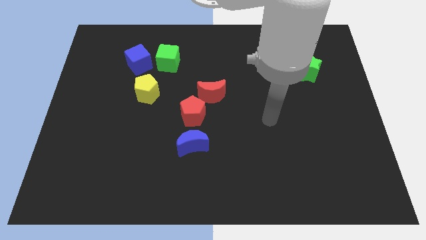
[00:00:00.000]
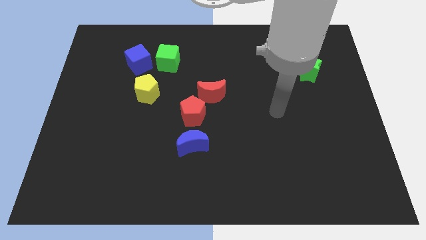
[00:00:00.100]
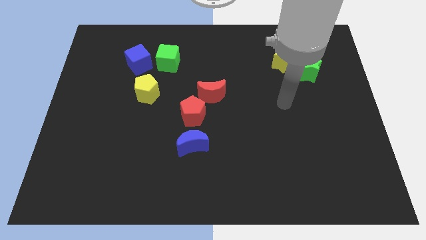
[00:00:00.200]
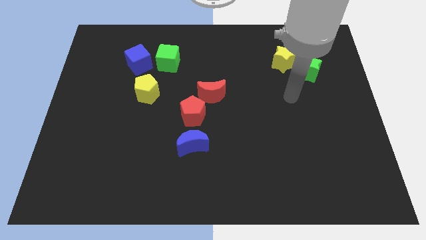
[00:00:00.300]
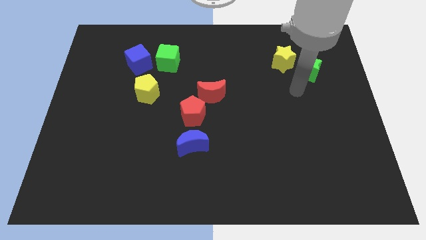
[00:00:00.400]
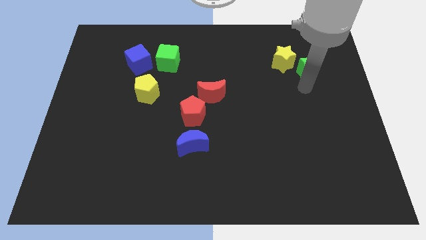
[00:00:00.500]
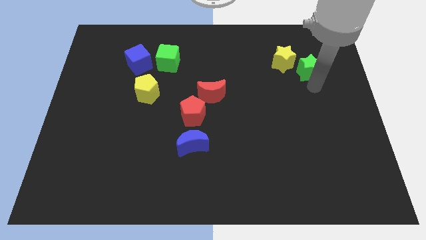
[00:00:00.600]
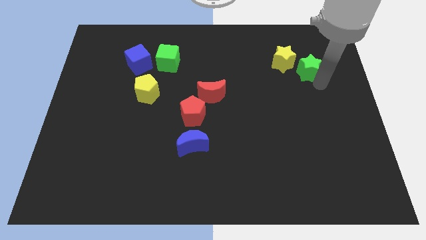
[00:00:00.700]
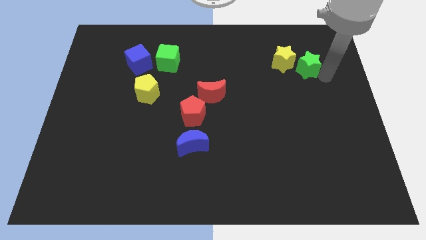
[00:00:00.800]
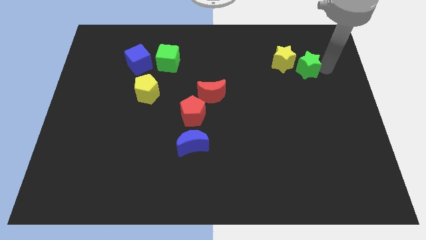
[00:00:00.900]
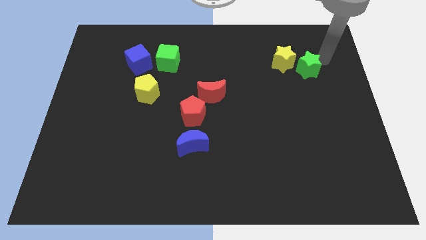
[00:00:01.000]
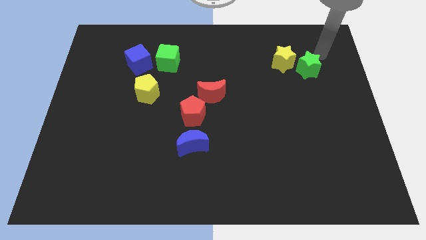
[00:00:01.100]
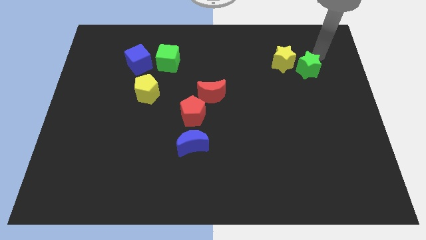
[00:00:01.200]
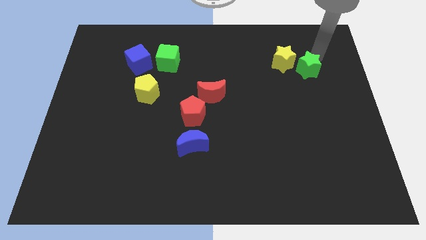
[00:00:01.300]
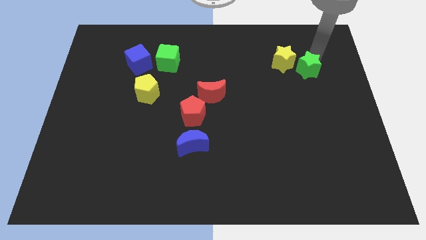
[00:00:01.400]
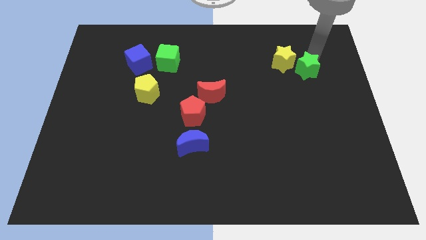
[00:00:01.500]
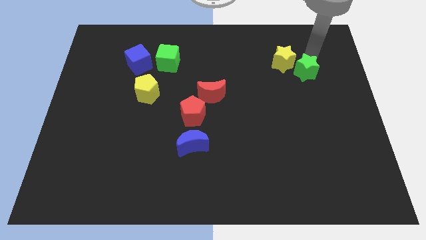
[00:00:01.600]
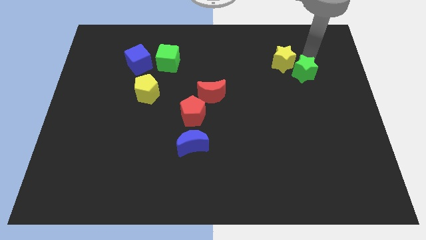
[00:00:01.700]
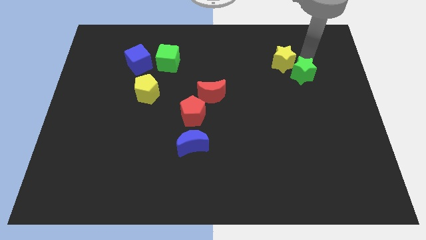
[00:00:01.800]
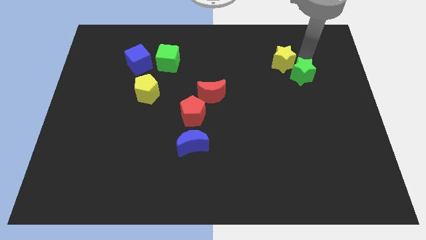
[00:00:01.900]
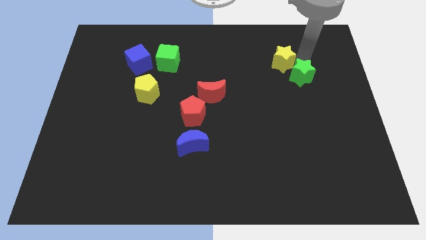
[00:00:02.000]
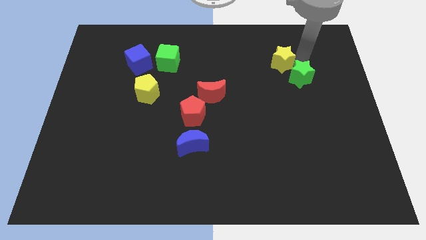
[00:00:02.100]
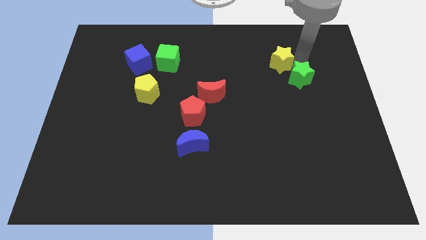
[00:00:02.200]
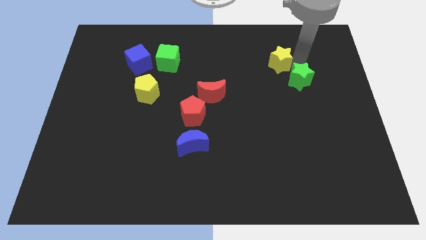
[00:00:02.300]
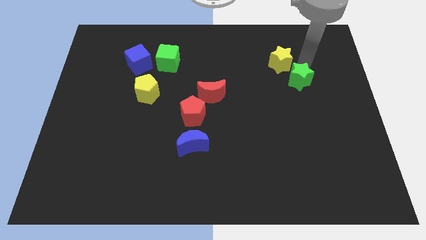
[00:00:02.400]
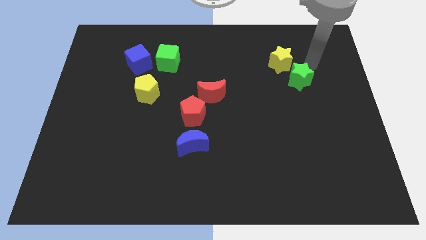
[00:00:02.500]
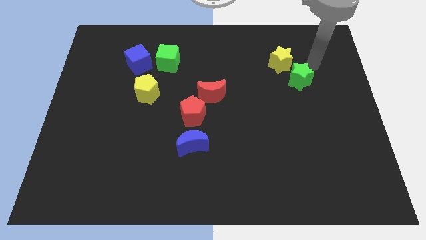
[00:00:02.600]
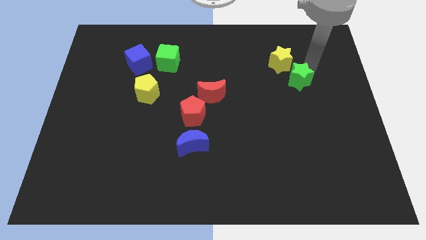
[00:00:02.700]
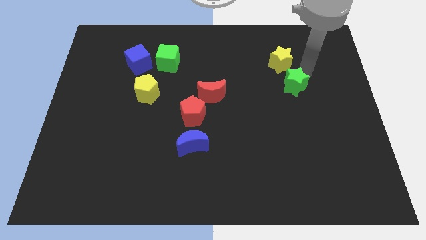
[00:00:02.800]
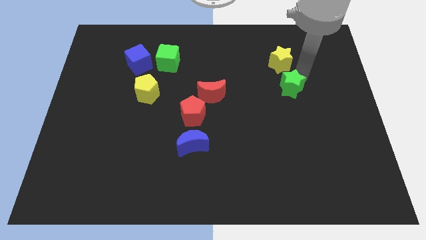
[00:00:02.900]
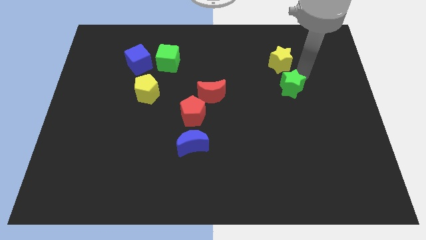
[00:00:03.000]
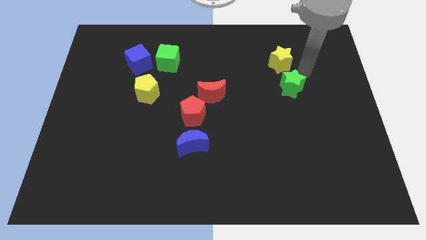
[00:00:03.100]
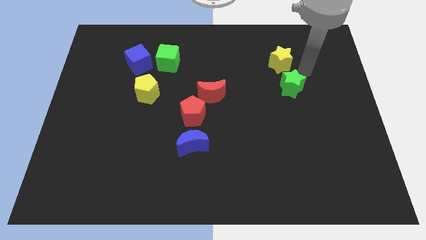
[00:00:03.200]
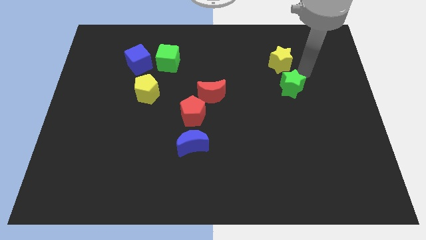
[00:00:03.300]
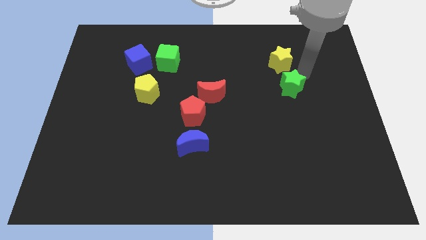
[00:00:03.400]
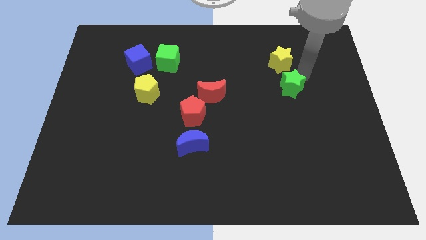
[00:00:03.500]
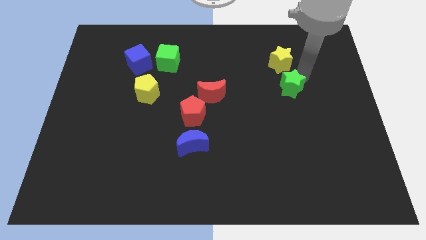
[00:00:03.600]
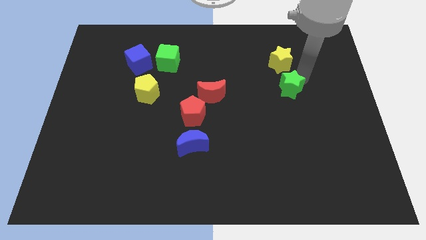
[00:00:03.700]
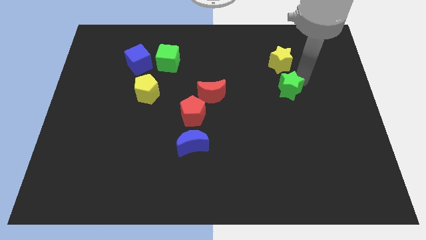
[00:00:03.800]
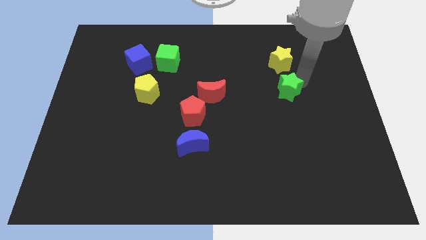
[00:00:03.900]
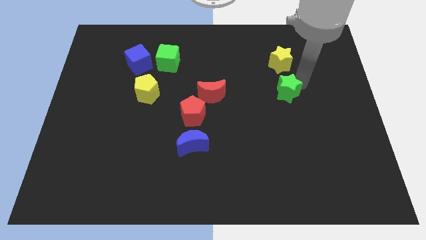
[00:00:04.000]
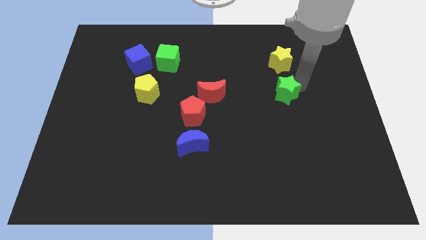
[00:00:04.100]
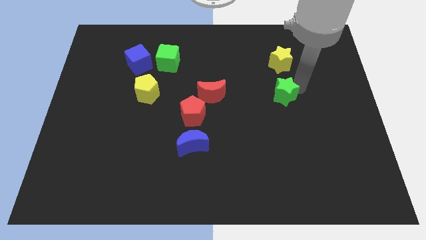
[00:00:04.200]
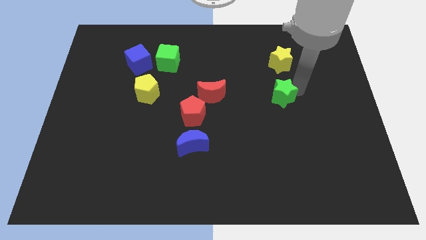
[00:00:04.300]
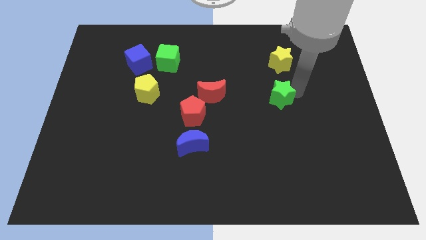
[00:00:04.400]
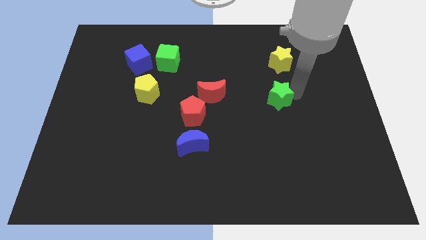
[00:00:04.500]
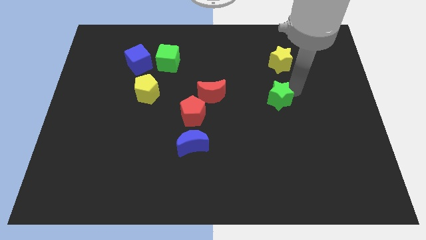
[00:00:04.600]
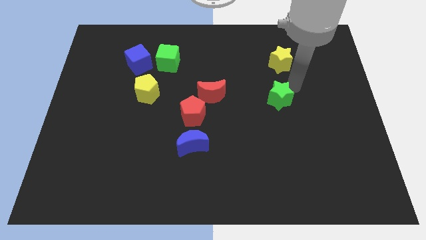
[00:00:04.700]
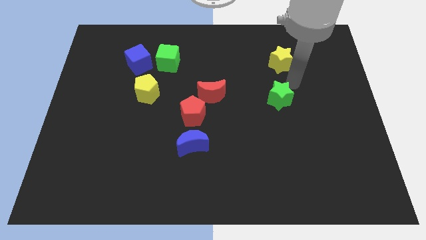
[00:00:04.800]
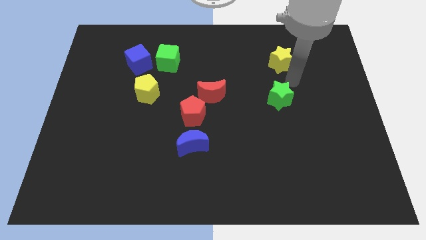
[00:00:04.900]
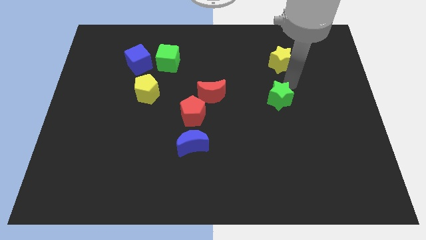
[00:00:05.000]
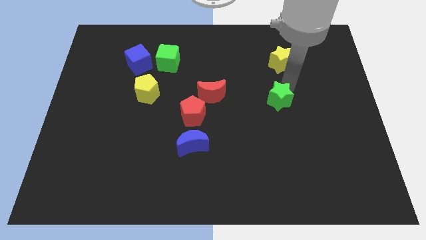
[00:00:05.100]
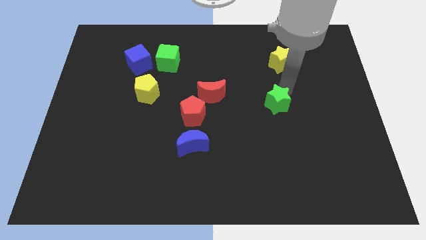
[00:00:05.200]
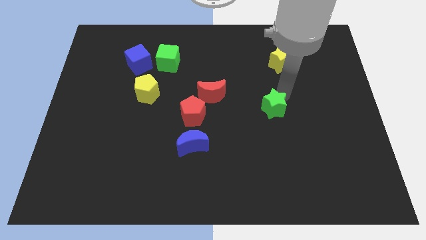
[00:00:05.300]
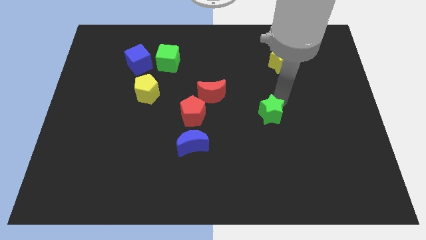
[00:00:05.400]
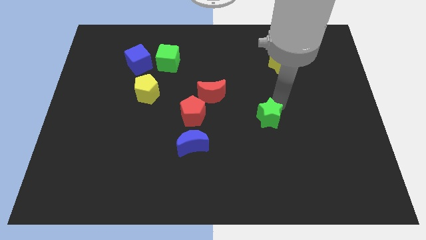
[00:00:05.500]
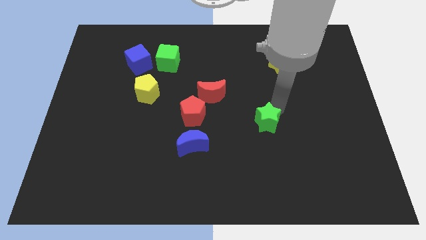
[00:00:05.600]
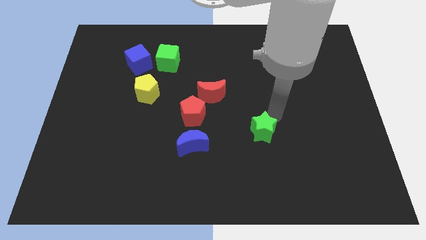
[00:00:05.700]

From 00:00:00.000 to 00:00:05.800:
push the green star diagonally down and to the left

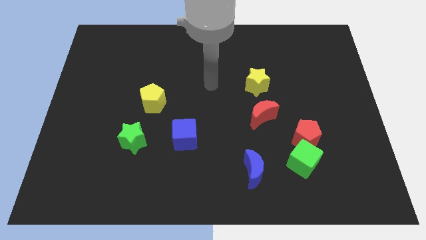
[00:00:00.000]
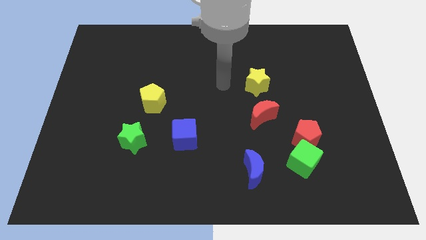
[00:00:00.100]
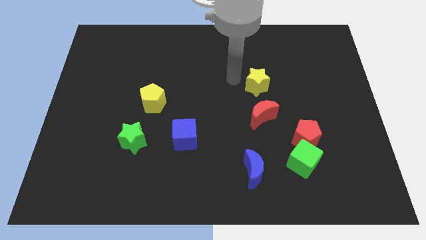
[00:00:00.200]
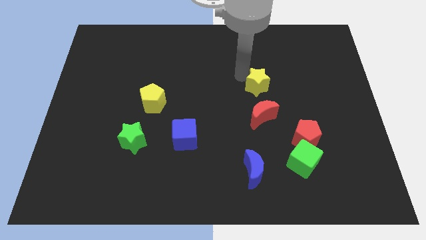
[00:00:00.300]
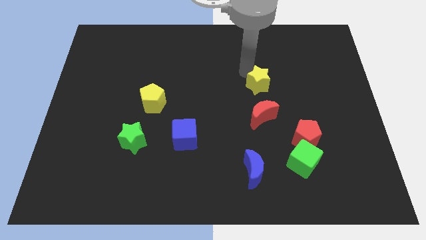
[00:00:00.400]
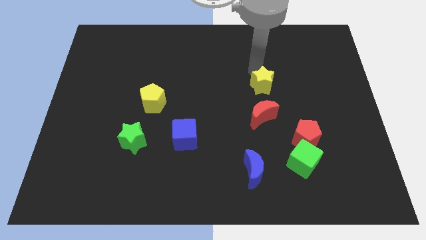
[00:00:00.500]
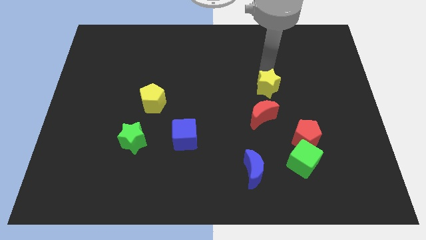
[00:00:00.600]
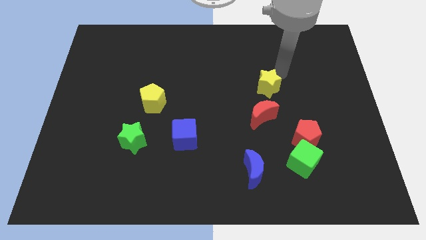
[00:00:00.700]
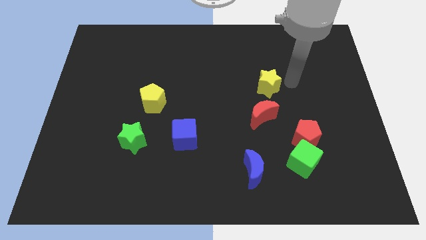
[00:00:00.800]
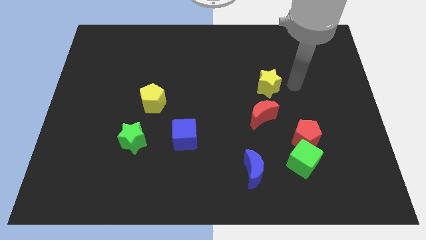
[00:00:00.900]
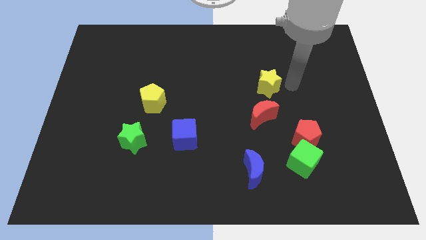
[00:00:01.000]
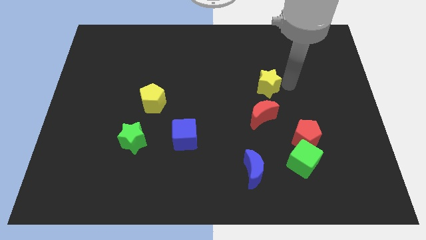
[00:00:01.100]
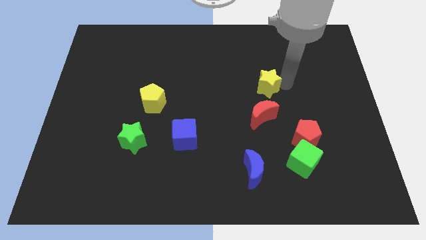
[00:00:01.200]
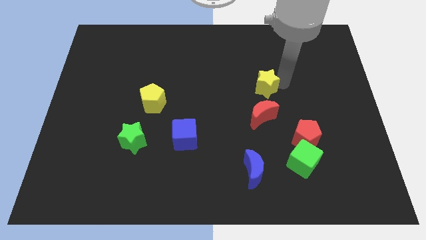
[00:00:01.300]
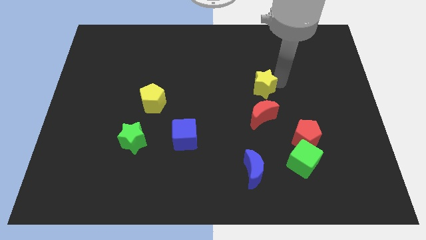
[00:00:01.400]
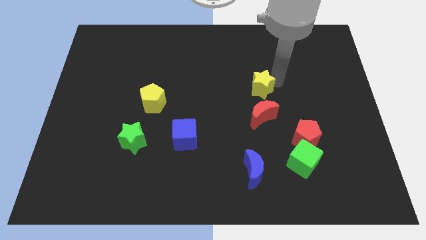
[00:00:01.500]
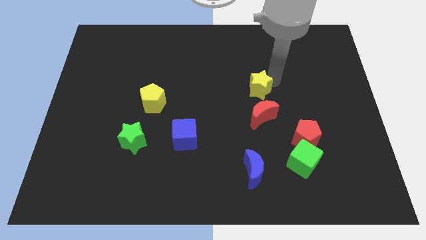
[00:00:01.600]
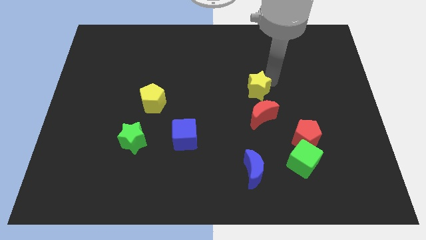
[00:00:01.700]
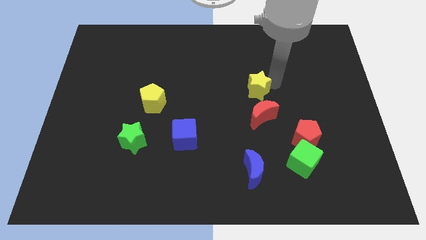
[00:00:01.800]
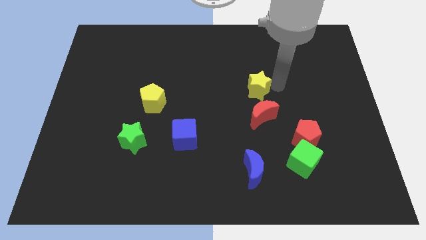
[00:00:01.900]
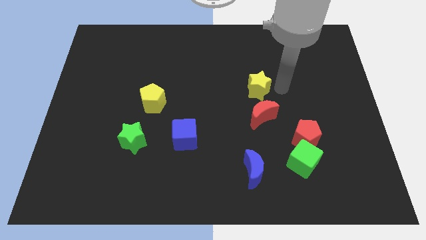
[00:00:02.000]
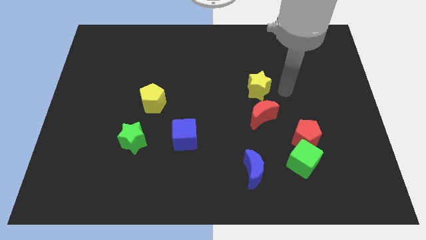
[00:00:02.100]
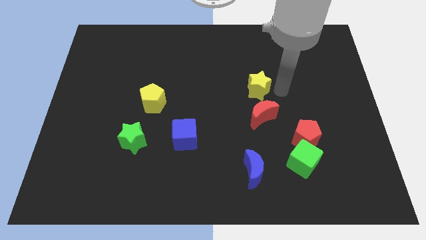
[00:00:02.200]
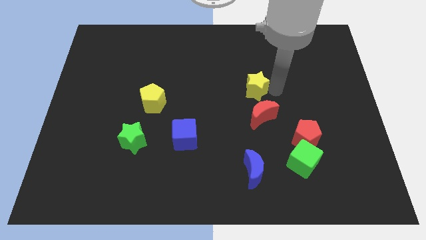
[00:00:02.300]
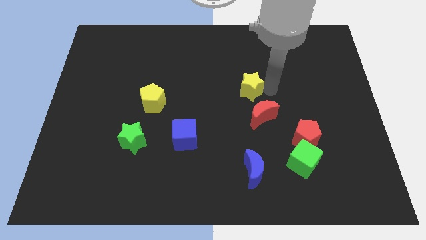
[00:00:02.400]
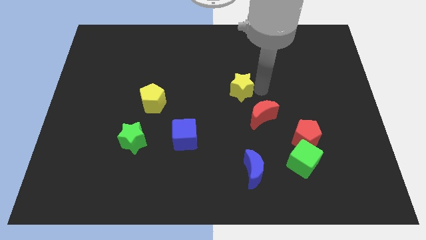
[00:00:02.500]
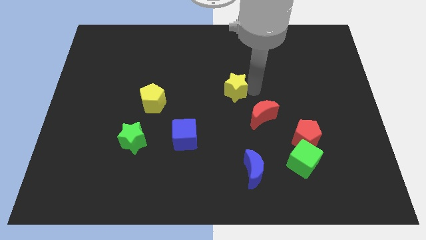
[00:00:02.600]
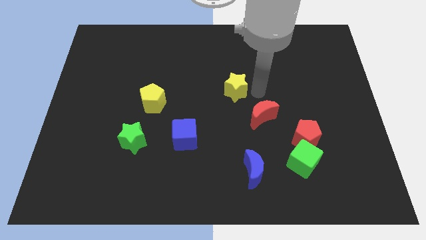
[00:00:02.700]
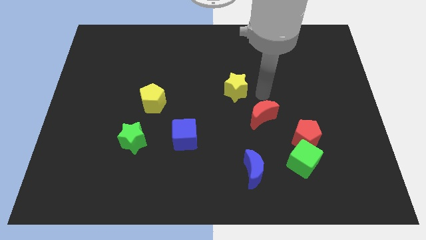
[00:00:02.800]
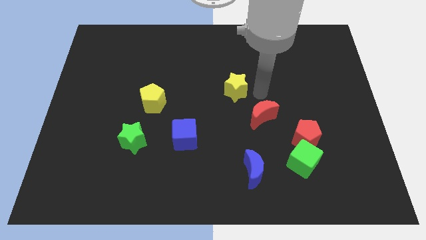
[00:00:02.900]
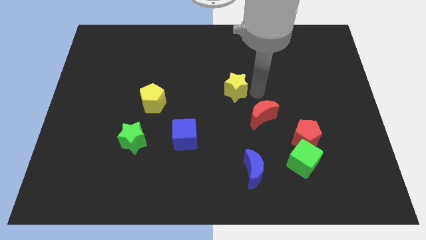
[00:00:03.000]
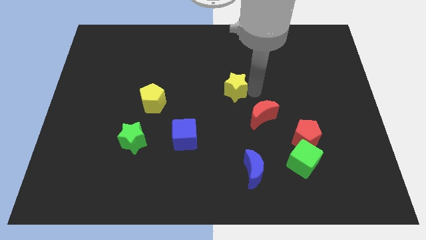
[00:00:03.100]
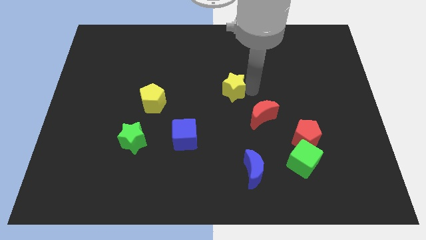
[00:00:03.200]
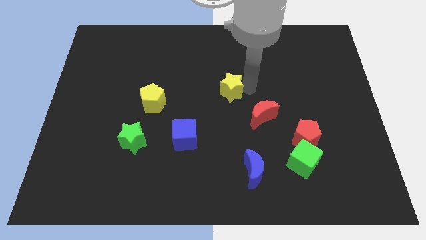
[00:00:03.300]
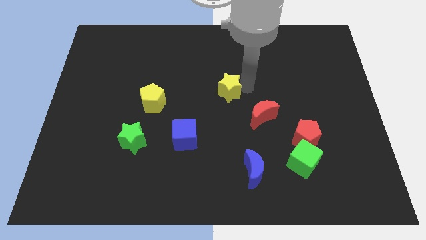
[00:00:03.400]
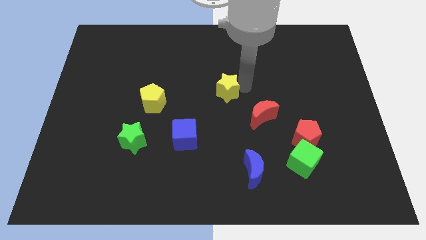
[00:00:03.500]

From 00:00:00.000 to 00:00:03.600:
push the yellow star to the left somewhat
